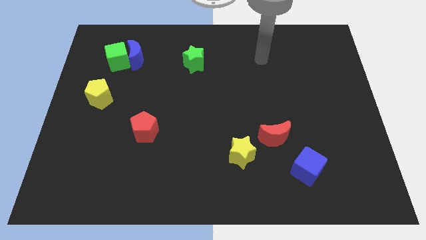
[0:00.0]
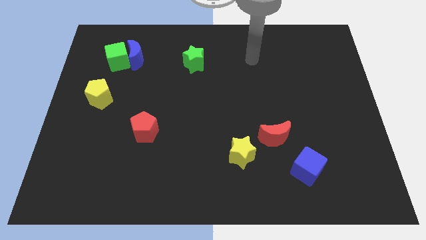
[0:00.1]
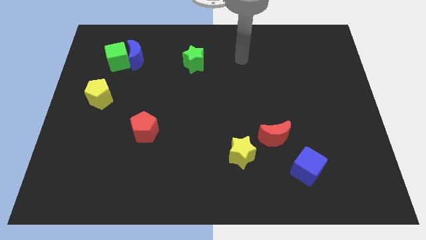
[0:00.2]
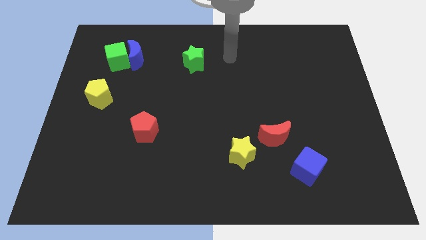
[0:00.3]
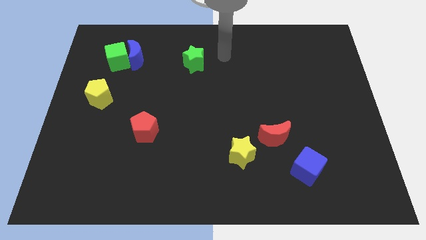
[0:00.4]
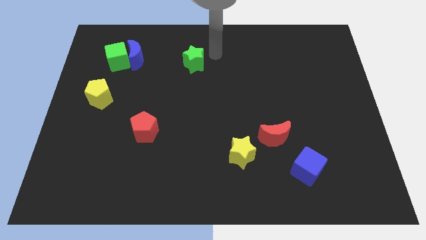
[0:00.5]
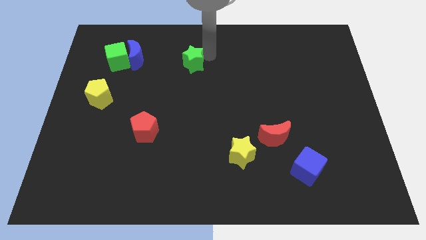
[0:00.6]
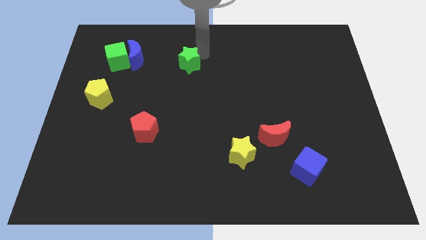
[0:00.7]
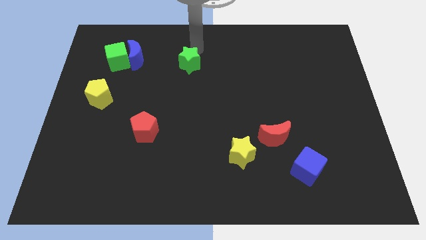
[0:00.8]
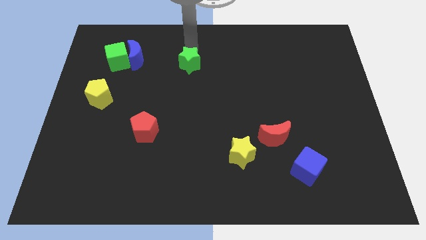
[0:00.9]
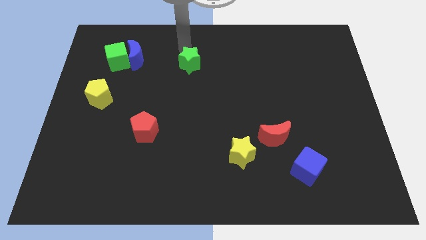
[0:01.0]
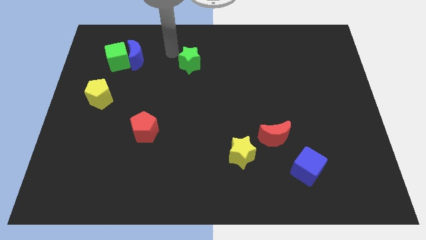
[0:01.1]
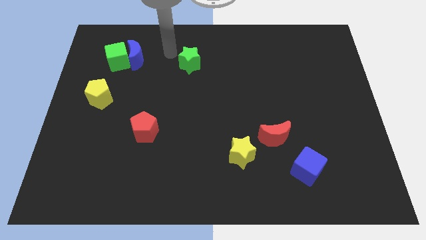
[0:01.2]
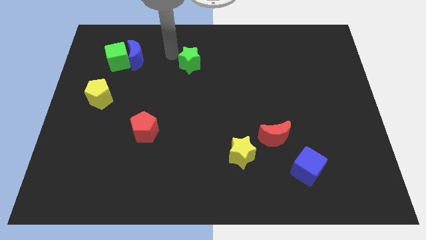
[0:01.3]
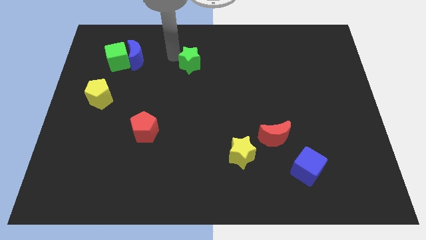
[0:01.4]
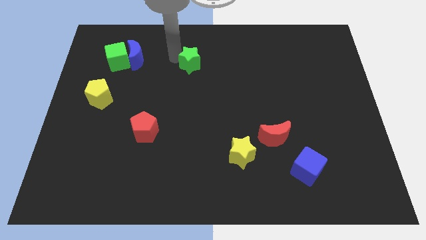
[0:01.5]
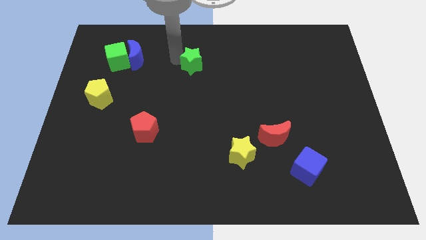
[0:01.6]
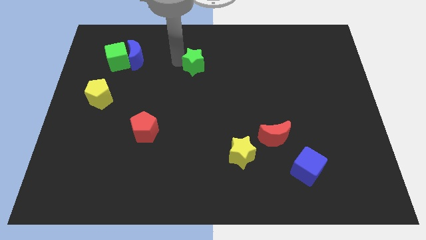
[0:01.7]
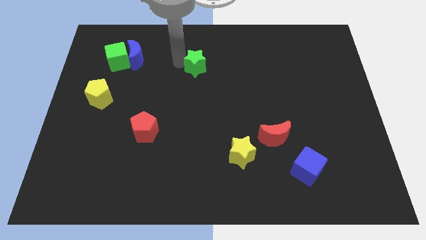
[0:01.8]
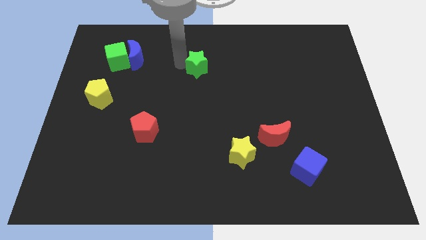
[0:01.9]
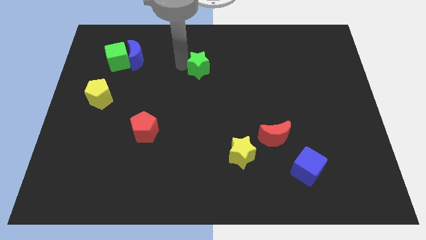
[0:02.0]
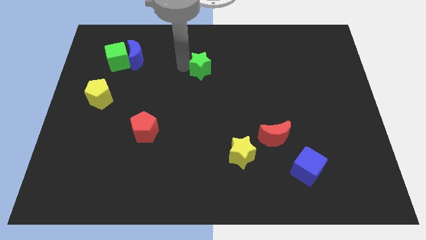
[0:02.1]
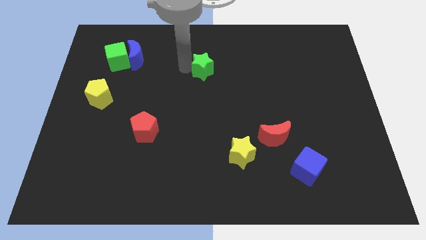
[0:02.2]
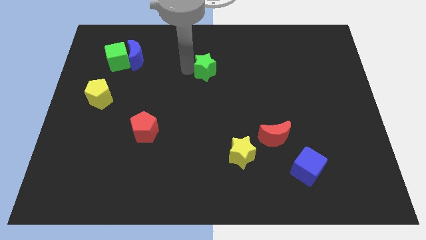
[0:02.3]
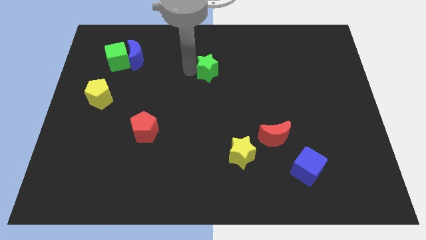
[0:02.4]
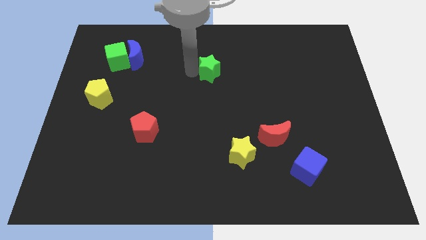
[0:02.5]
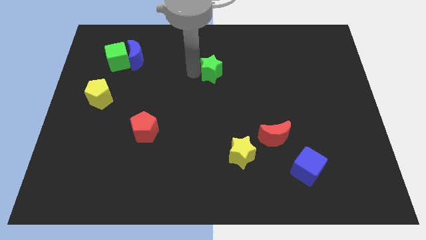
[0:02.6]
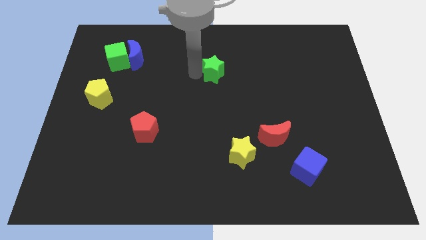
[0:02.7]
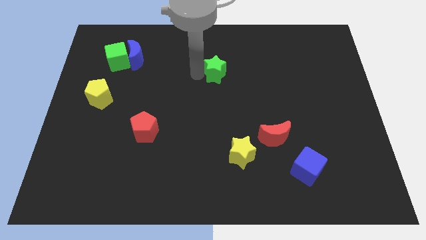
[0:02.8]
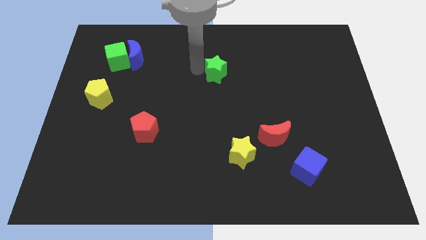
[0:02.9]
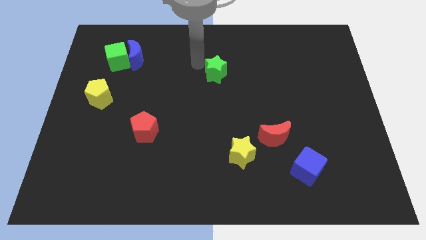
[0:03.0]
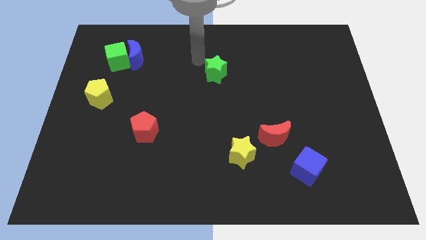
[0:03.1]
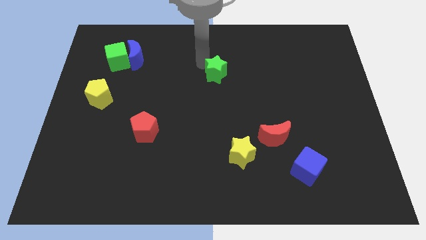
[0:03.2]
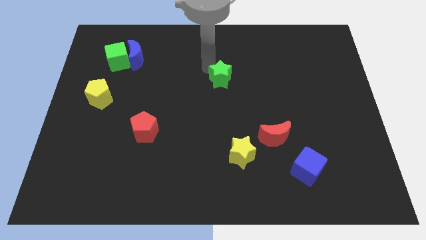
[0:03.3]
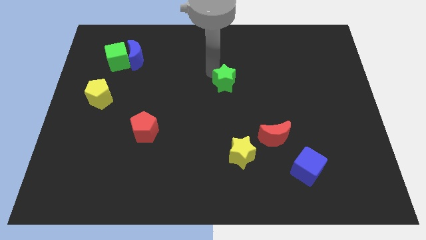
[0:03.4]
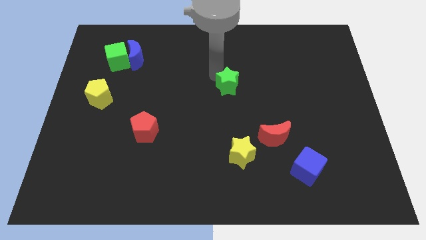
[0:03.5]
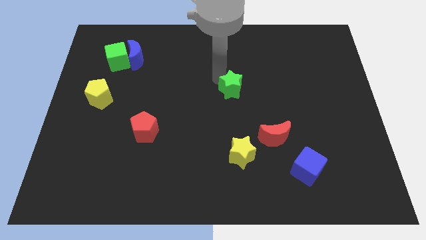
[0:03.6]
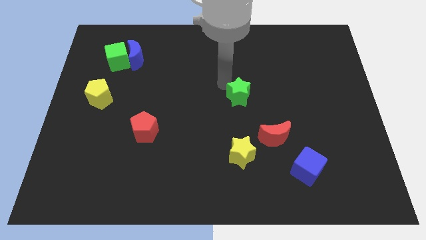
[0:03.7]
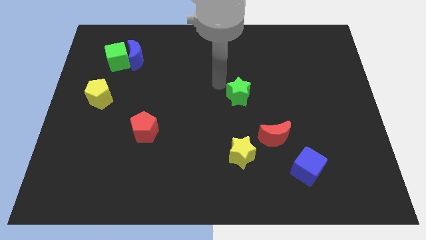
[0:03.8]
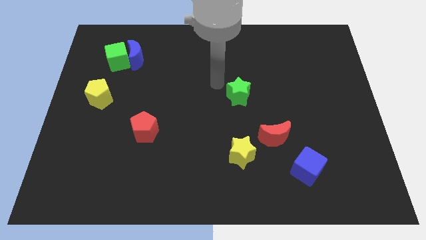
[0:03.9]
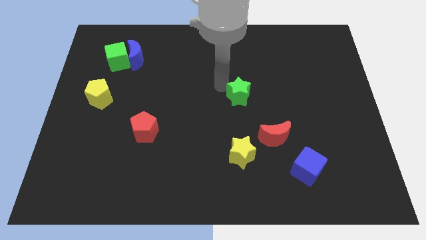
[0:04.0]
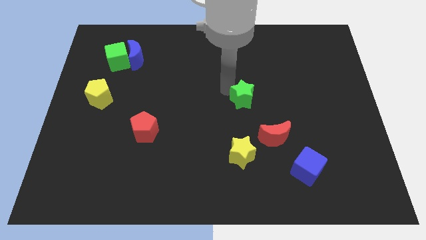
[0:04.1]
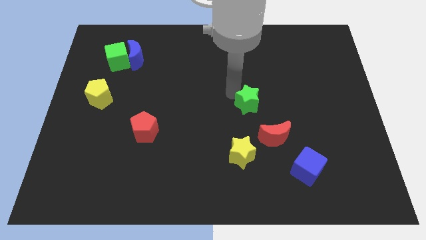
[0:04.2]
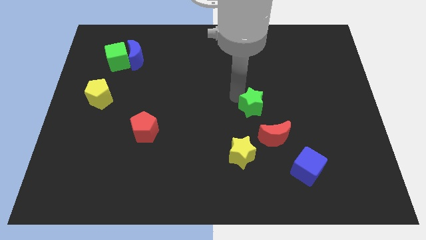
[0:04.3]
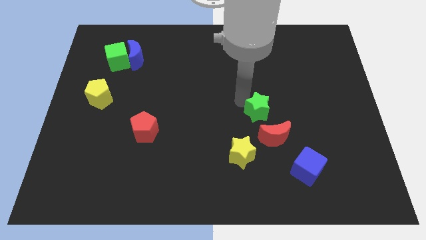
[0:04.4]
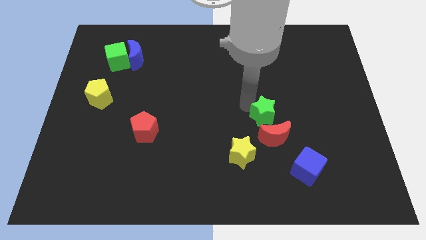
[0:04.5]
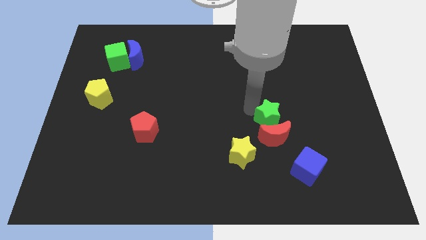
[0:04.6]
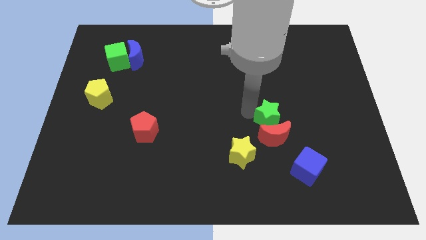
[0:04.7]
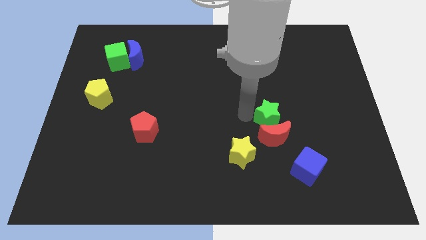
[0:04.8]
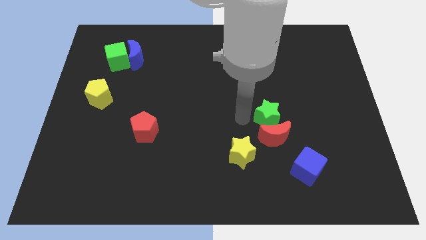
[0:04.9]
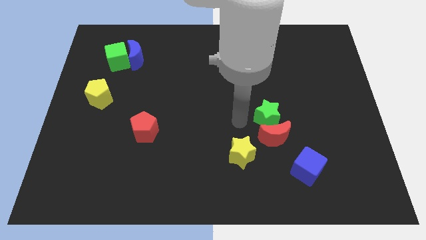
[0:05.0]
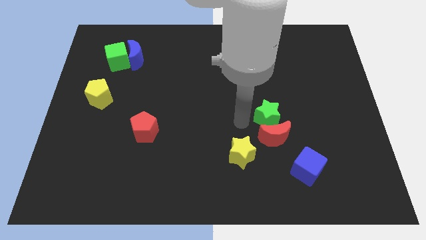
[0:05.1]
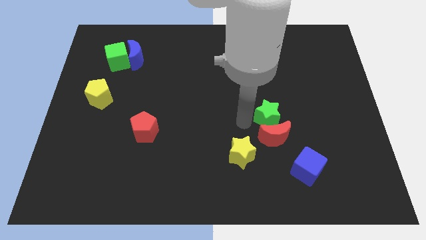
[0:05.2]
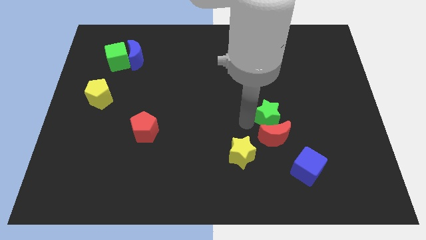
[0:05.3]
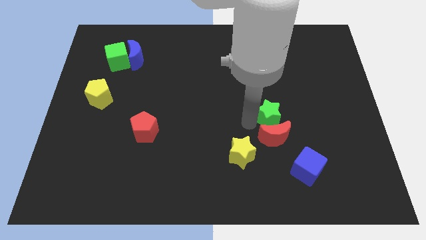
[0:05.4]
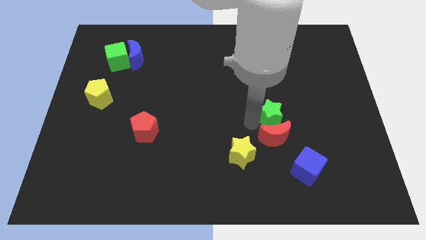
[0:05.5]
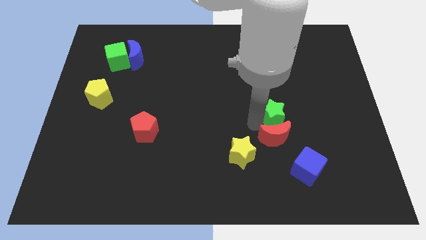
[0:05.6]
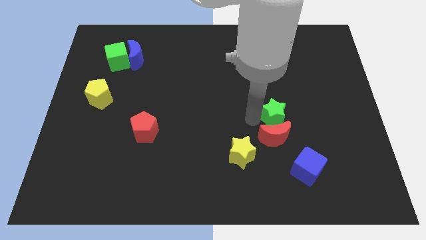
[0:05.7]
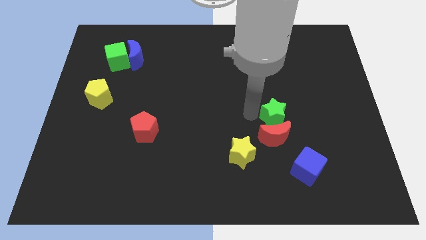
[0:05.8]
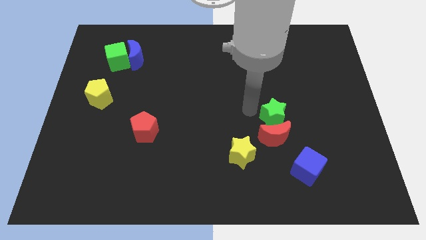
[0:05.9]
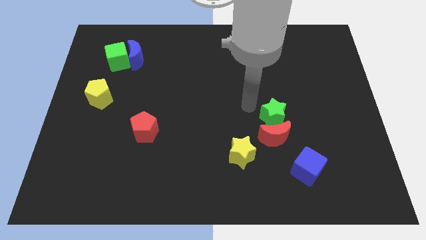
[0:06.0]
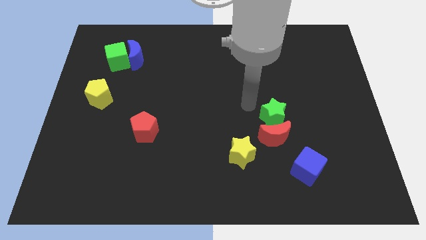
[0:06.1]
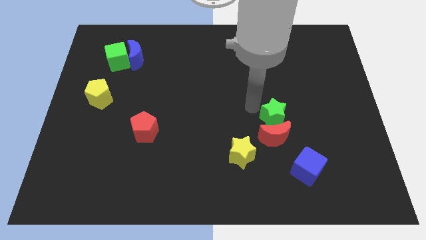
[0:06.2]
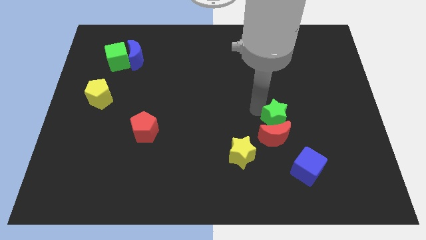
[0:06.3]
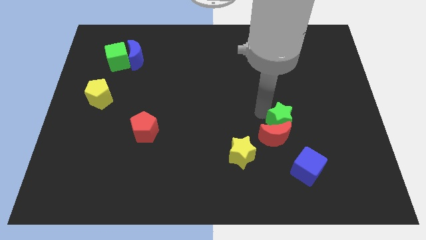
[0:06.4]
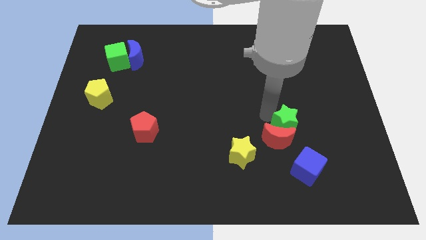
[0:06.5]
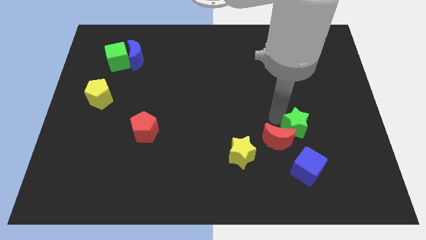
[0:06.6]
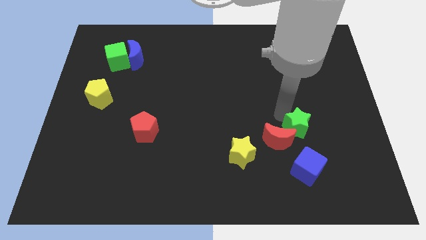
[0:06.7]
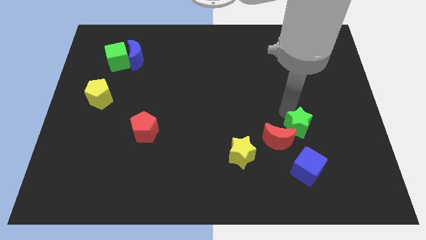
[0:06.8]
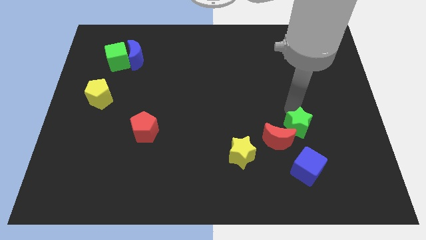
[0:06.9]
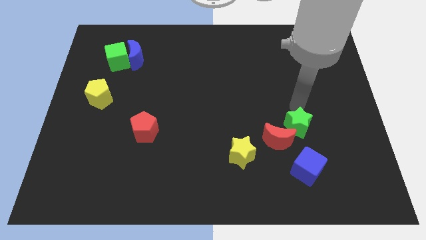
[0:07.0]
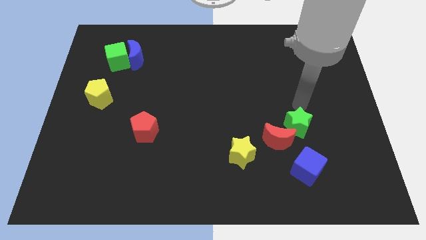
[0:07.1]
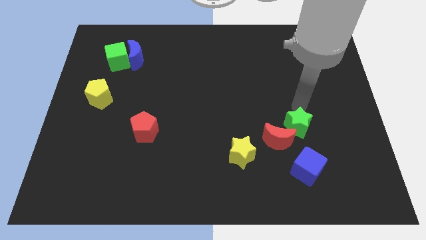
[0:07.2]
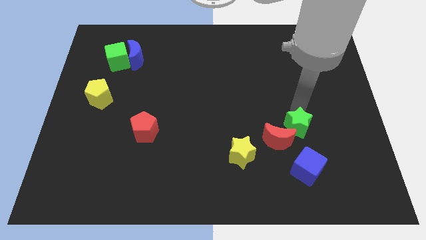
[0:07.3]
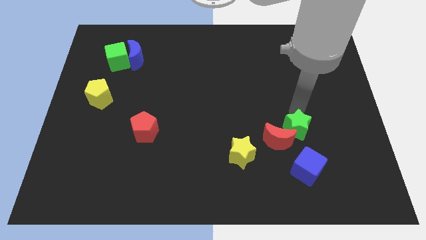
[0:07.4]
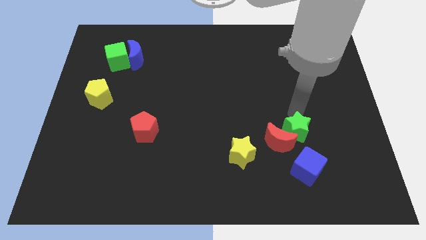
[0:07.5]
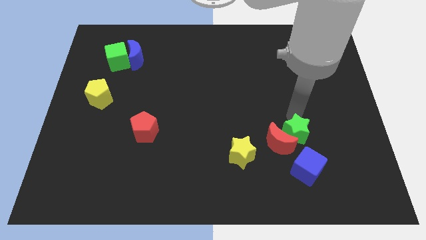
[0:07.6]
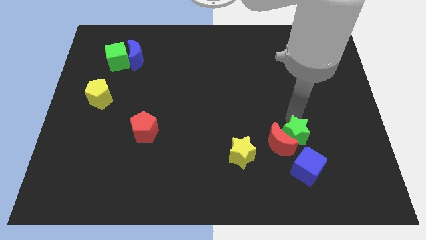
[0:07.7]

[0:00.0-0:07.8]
push the green star to the right of the yellow star
